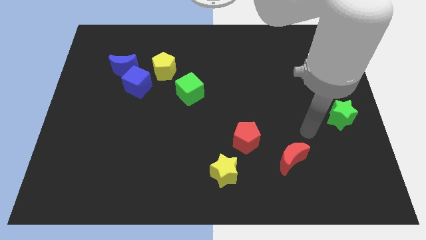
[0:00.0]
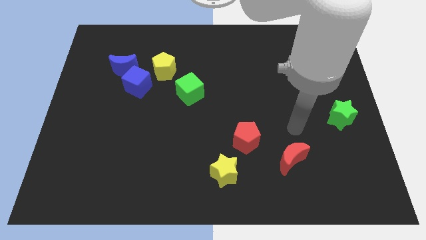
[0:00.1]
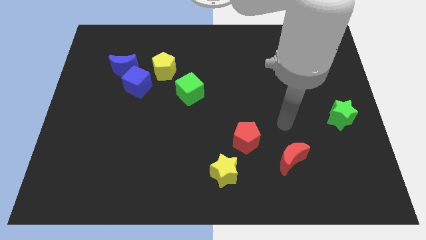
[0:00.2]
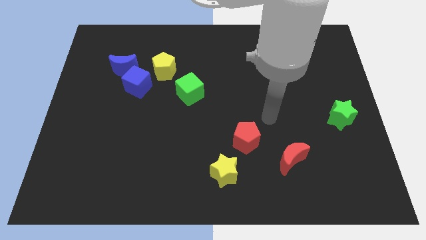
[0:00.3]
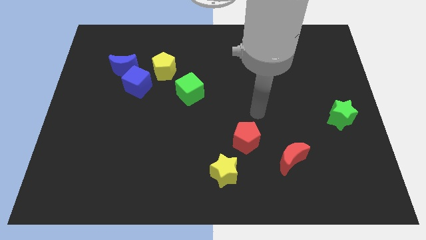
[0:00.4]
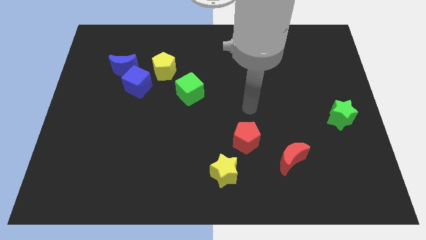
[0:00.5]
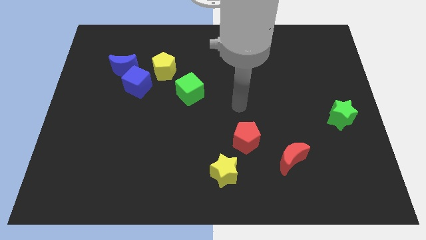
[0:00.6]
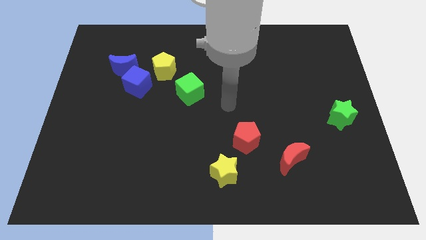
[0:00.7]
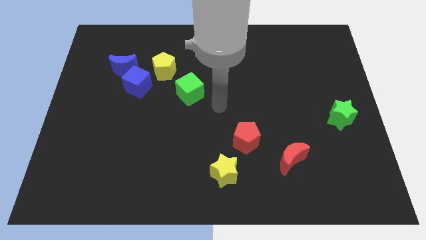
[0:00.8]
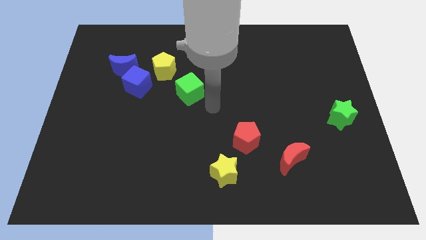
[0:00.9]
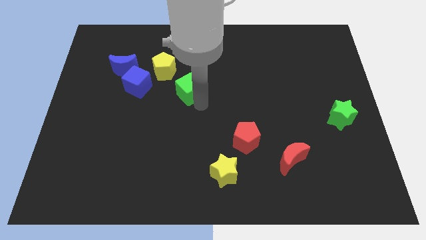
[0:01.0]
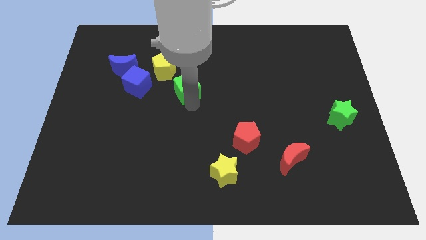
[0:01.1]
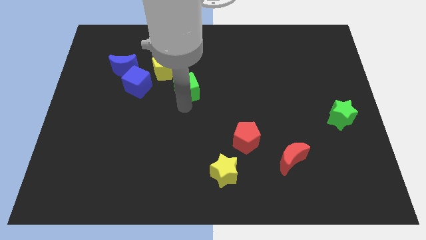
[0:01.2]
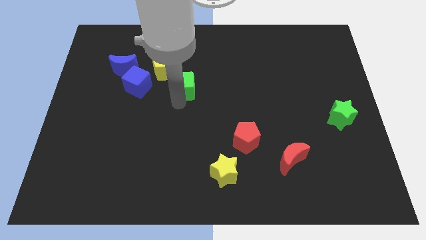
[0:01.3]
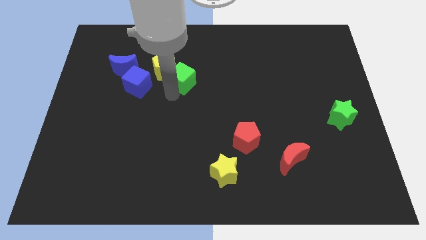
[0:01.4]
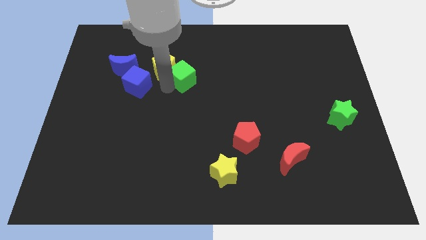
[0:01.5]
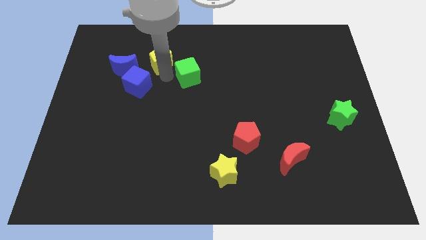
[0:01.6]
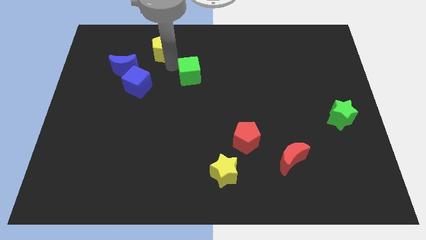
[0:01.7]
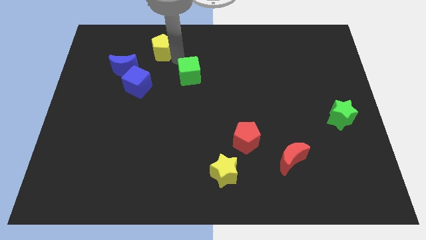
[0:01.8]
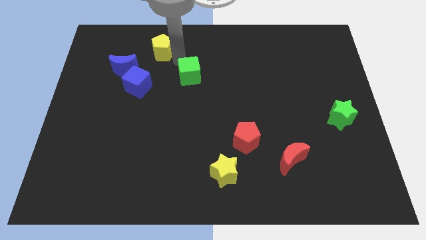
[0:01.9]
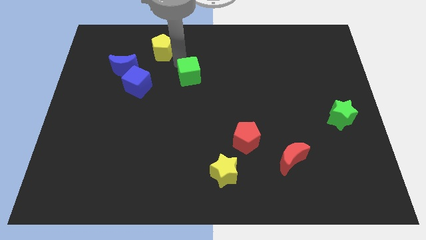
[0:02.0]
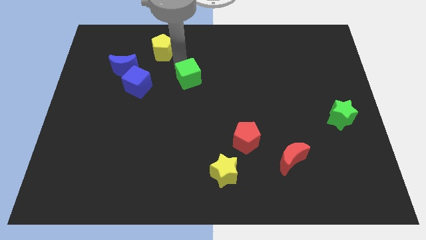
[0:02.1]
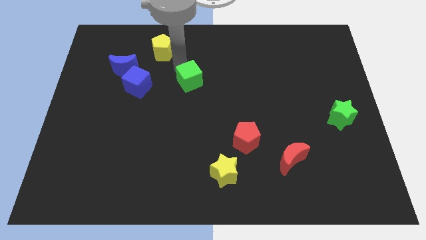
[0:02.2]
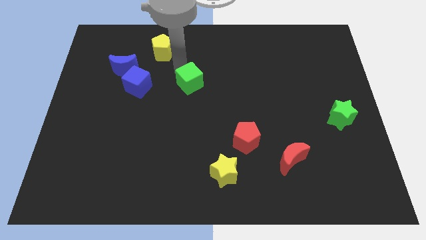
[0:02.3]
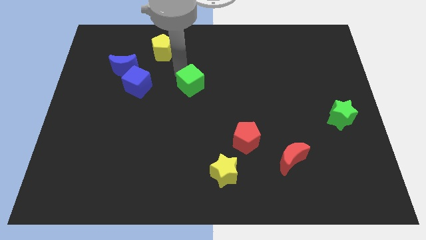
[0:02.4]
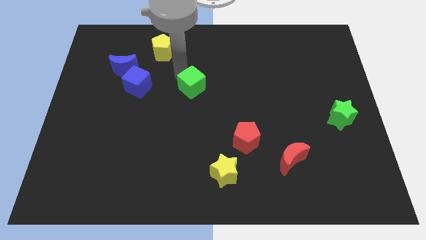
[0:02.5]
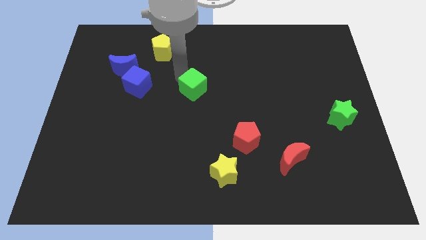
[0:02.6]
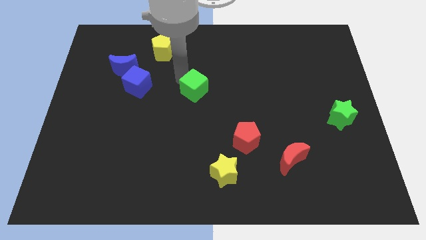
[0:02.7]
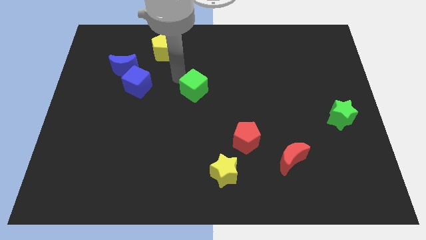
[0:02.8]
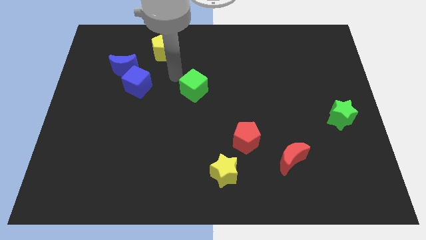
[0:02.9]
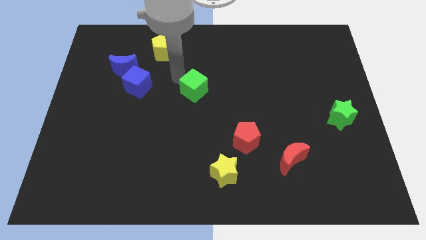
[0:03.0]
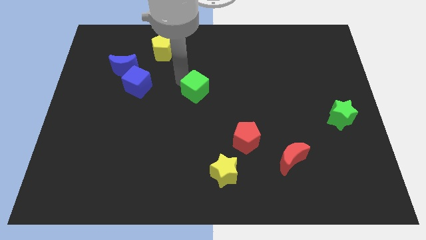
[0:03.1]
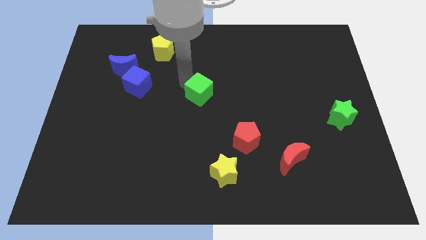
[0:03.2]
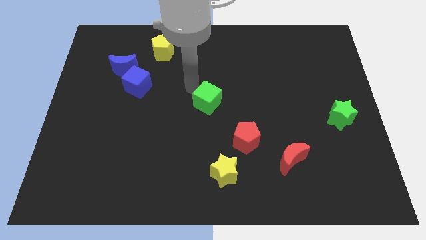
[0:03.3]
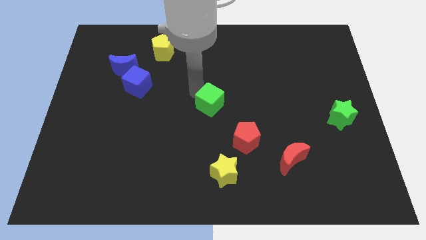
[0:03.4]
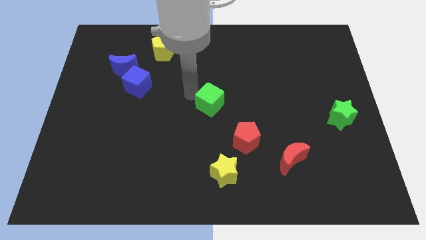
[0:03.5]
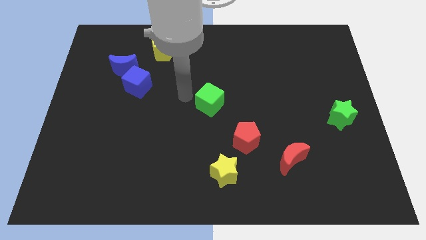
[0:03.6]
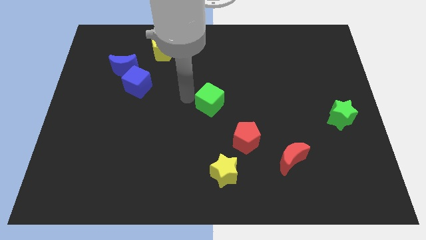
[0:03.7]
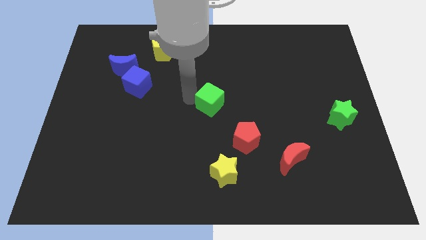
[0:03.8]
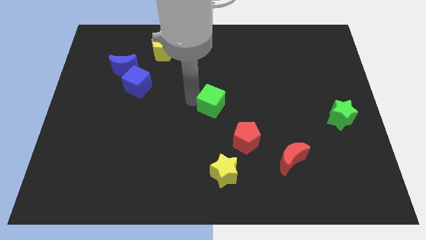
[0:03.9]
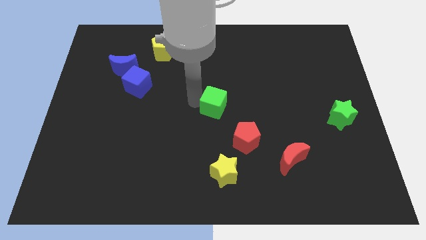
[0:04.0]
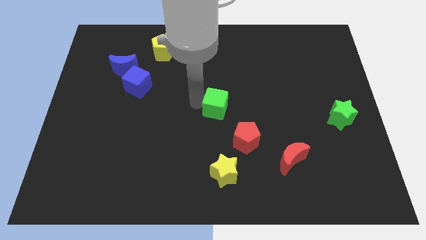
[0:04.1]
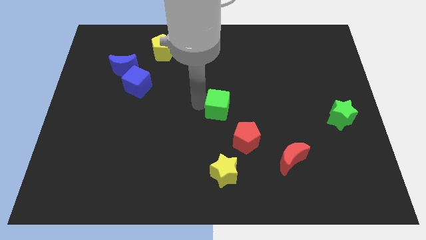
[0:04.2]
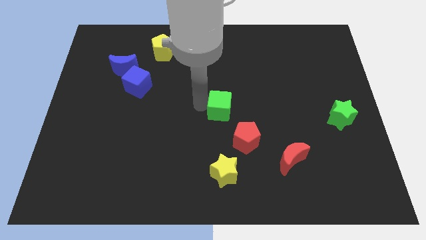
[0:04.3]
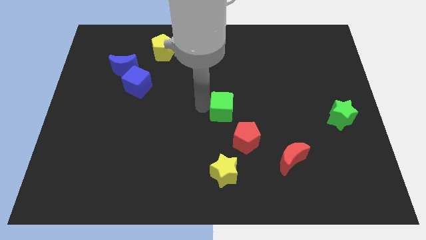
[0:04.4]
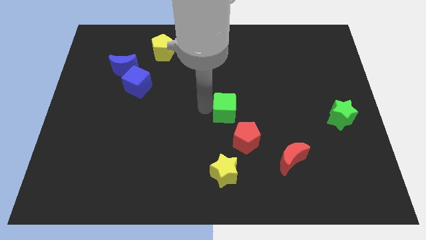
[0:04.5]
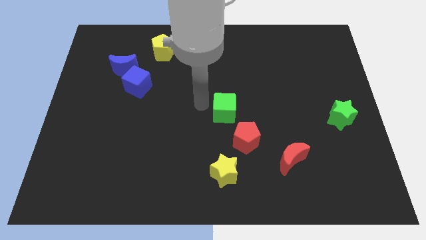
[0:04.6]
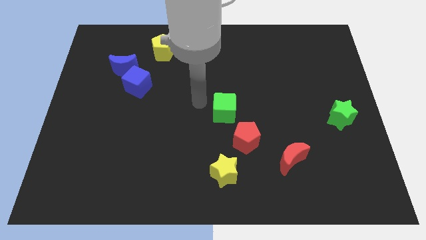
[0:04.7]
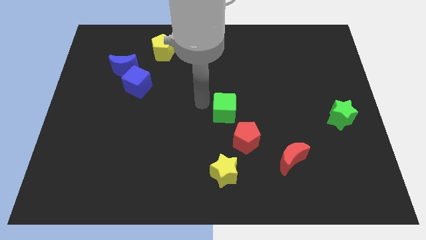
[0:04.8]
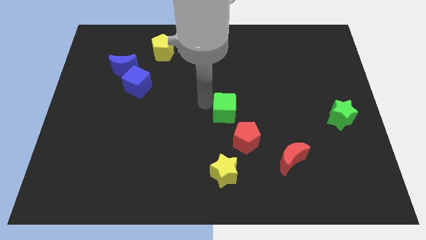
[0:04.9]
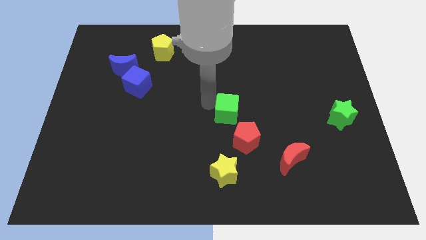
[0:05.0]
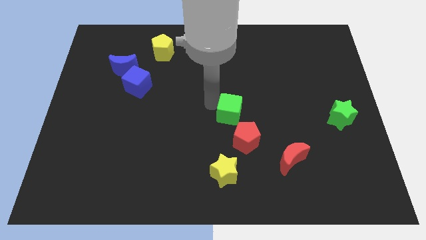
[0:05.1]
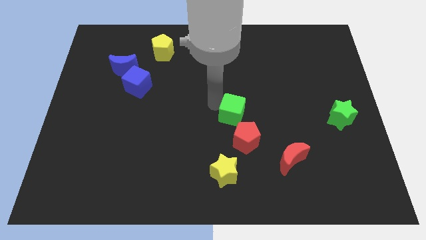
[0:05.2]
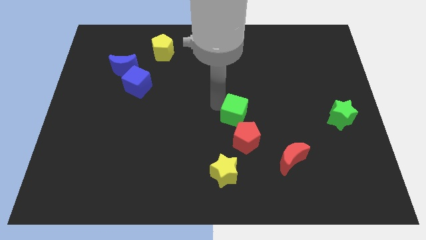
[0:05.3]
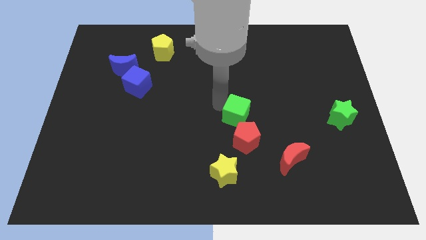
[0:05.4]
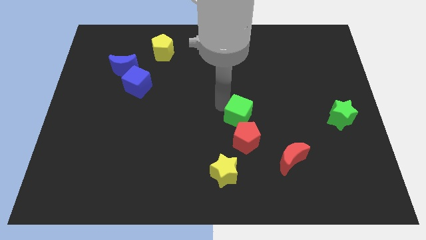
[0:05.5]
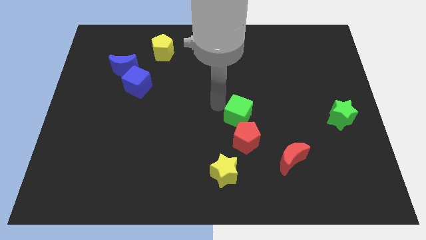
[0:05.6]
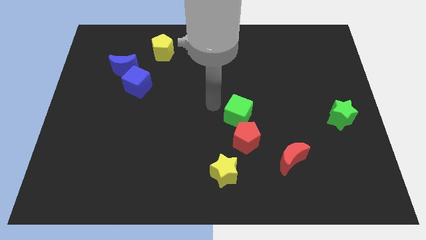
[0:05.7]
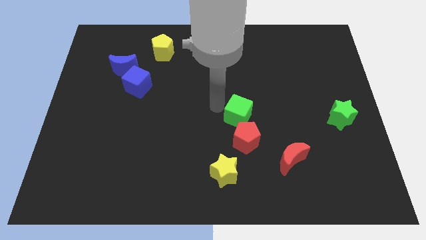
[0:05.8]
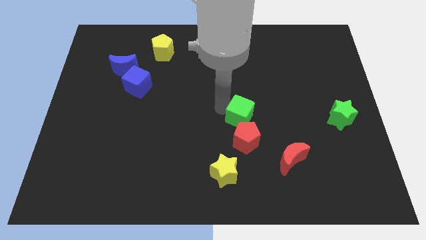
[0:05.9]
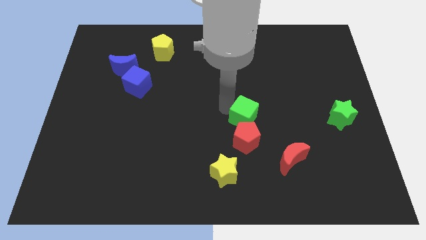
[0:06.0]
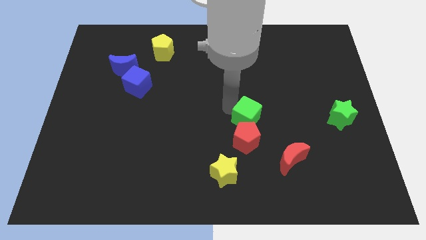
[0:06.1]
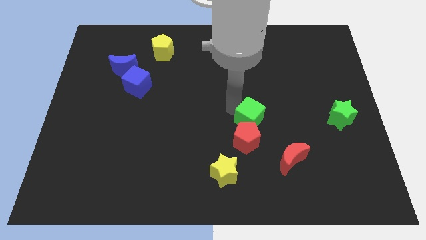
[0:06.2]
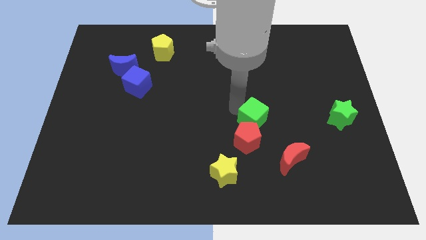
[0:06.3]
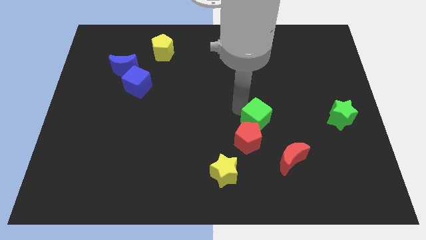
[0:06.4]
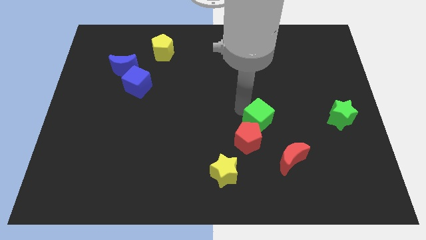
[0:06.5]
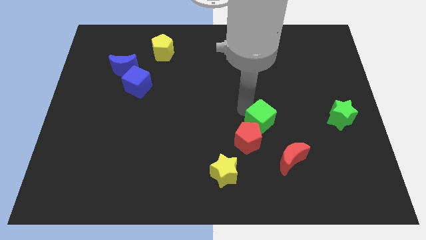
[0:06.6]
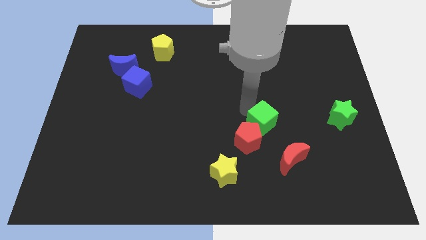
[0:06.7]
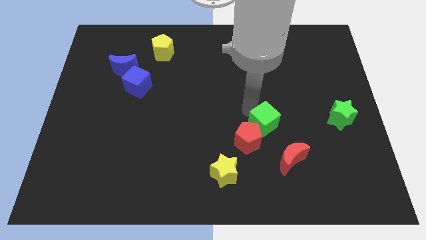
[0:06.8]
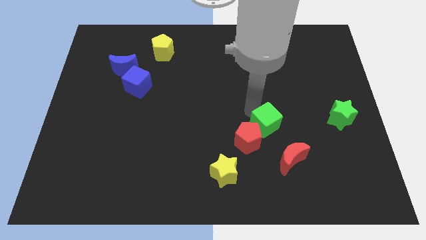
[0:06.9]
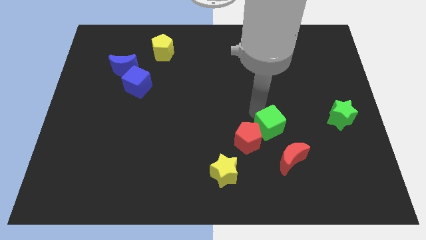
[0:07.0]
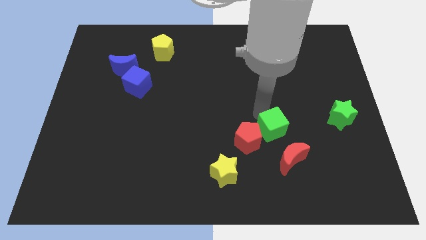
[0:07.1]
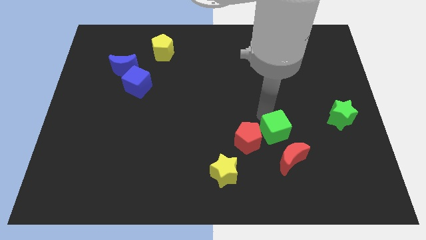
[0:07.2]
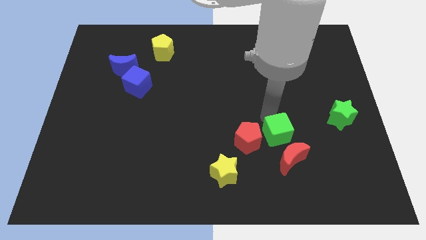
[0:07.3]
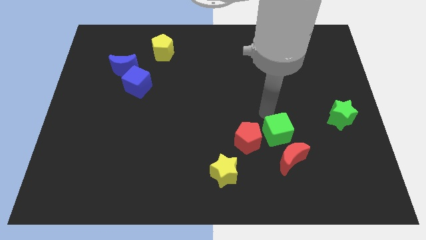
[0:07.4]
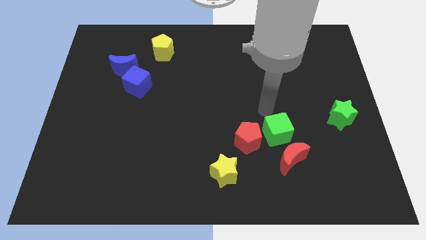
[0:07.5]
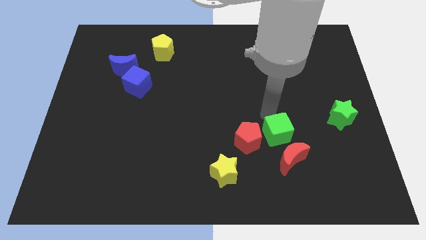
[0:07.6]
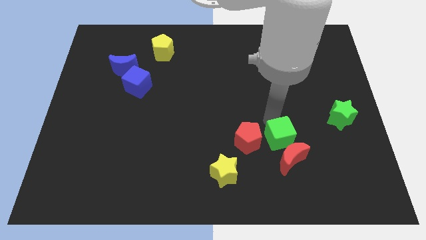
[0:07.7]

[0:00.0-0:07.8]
push the green cube next to the red moon
